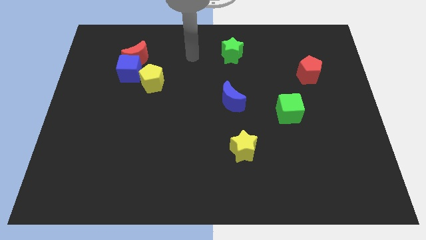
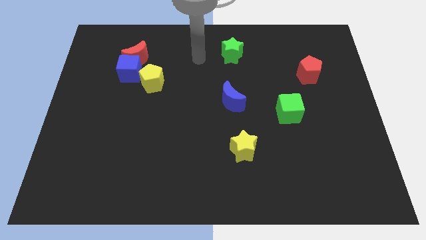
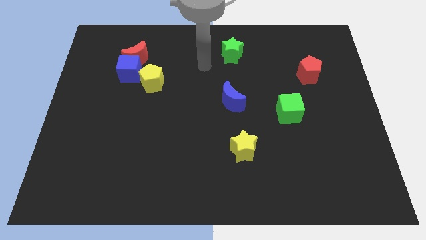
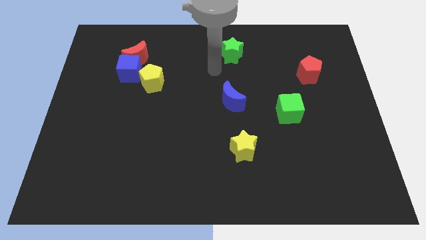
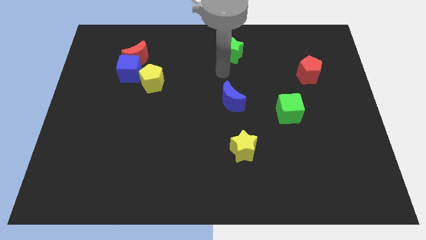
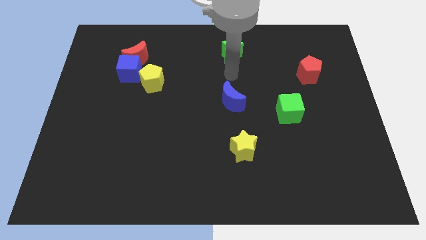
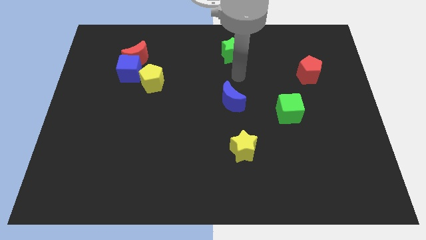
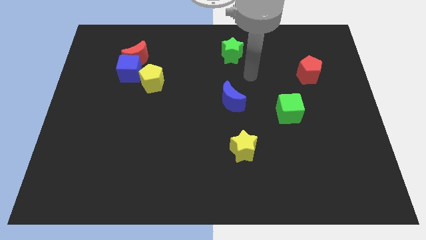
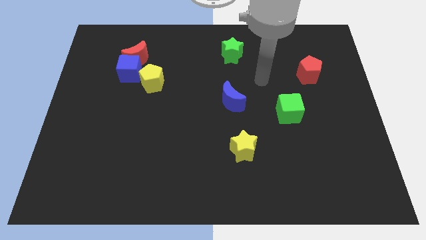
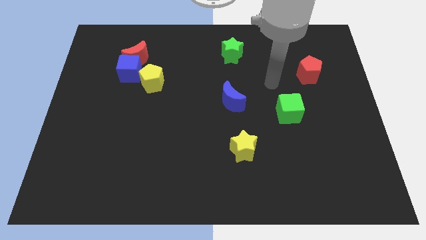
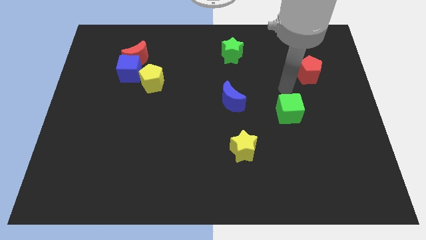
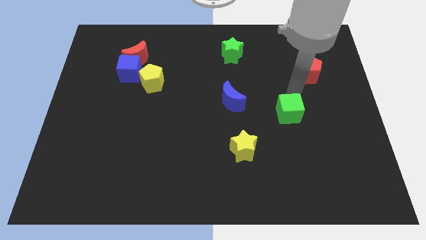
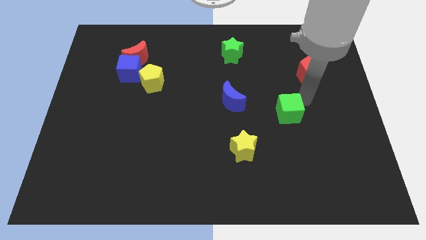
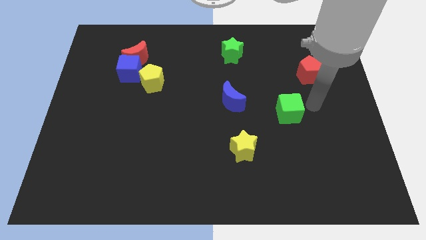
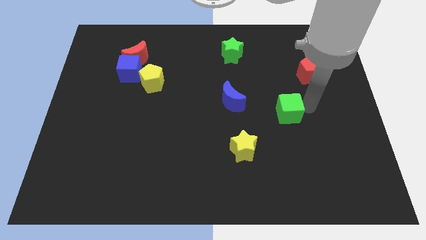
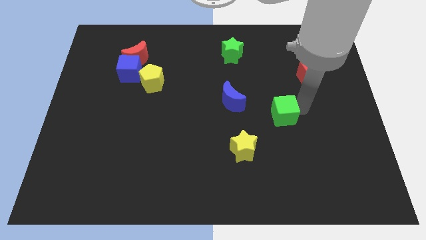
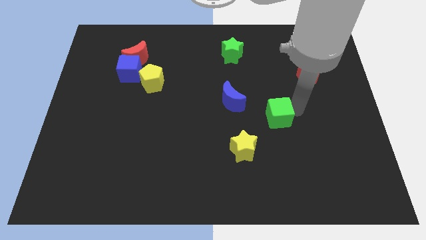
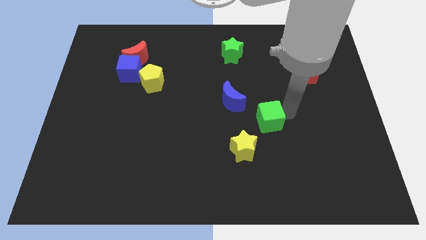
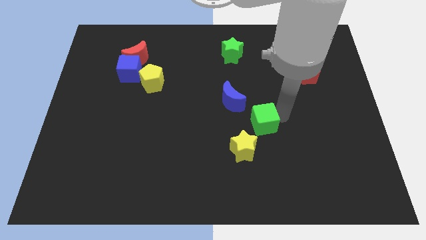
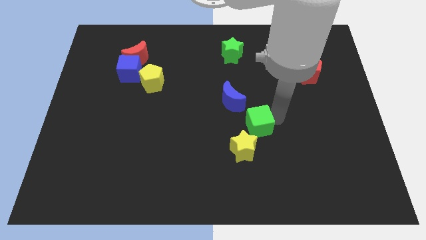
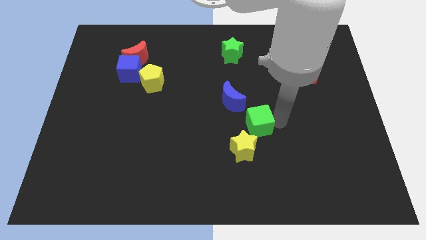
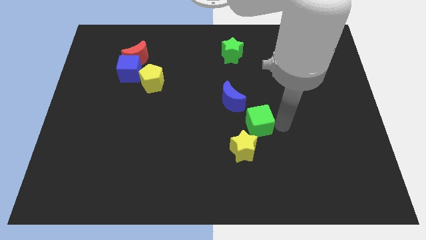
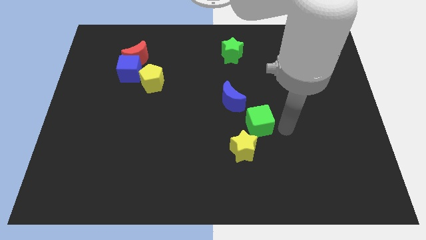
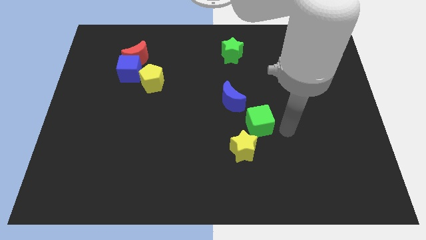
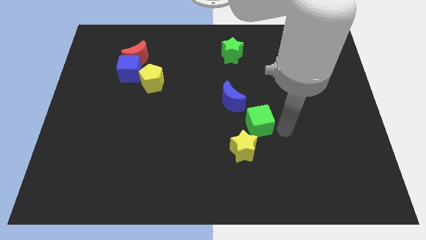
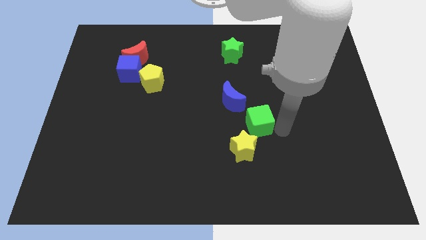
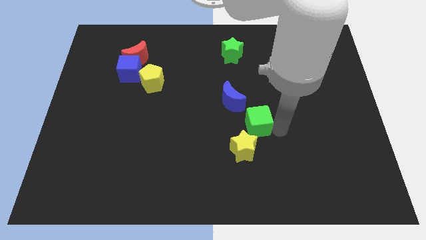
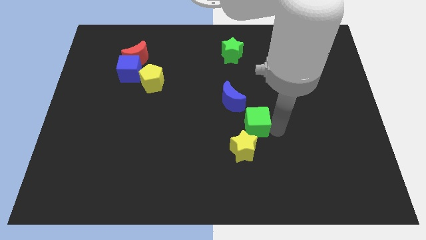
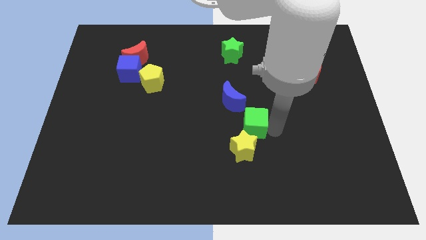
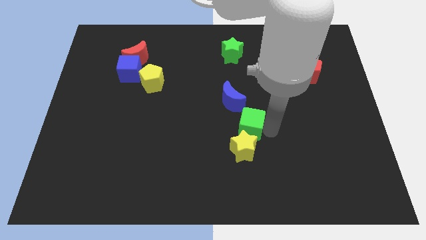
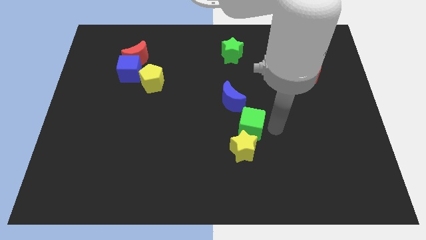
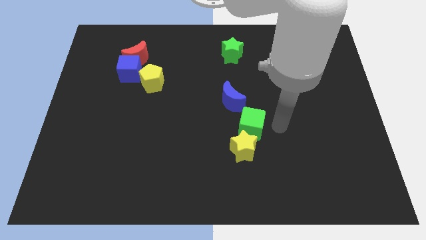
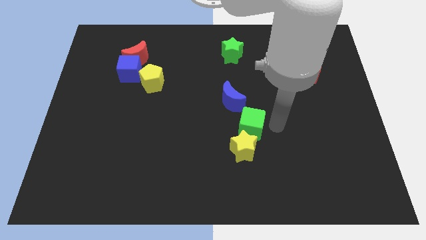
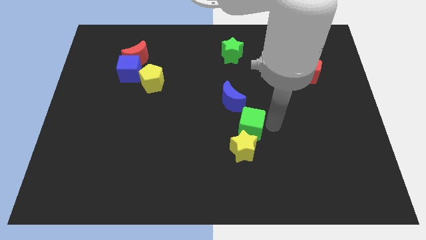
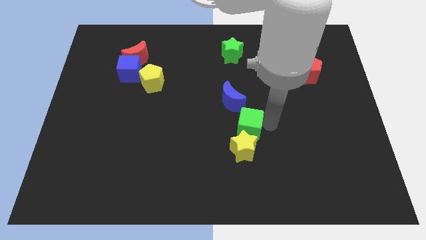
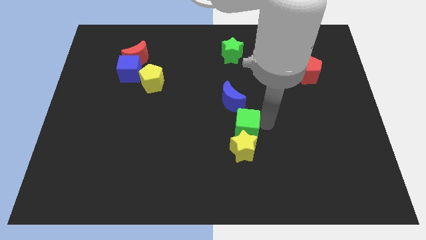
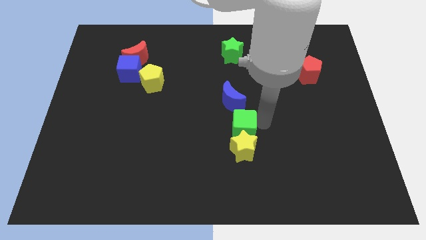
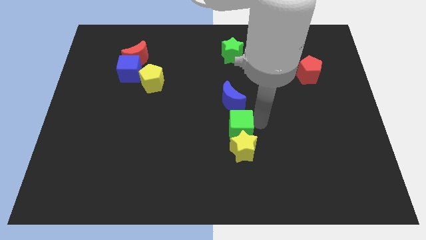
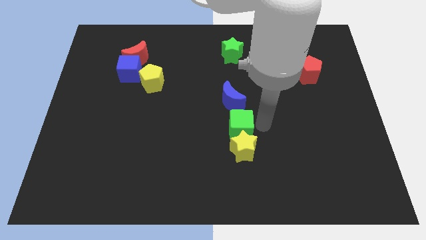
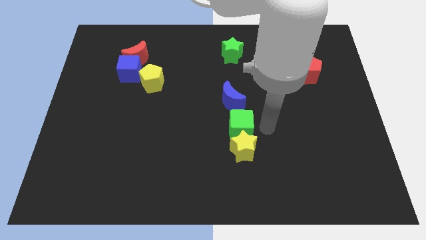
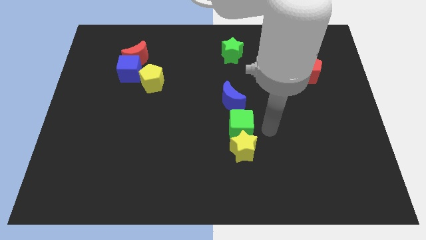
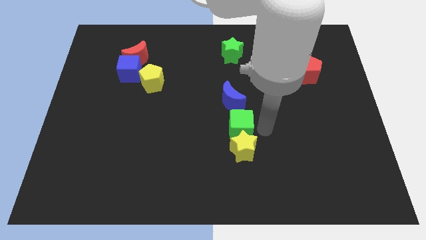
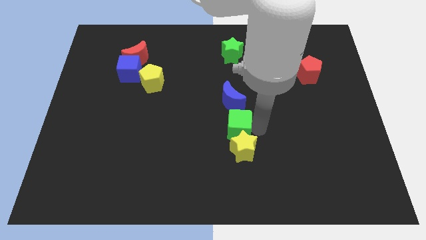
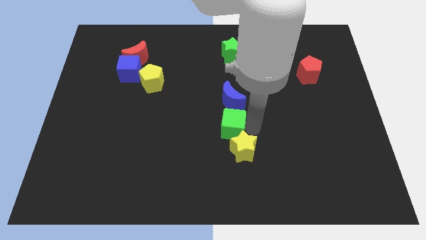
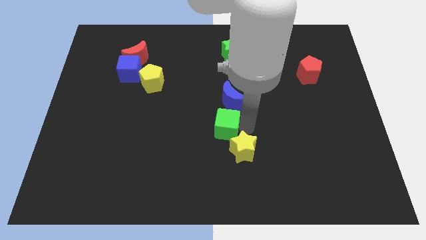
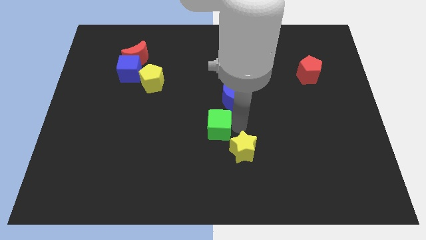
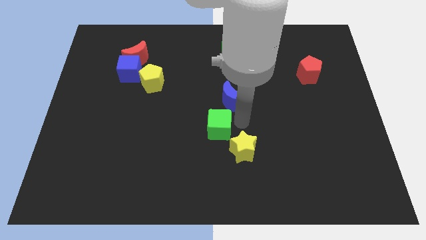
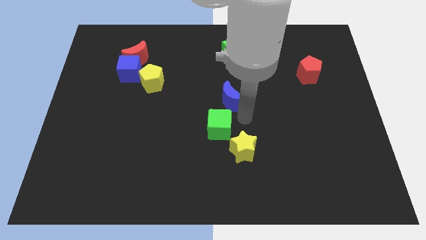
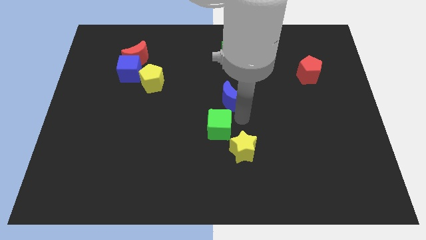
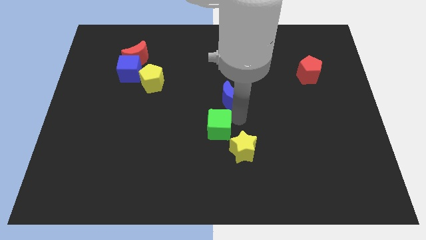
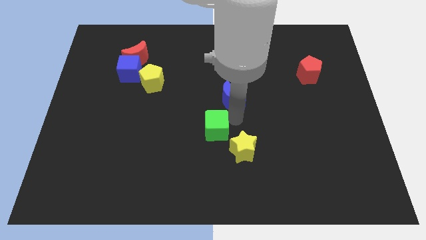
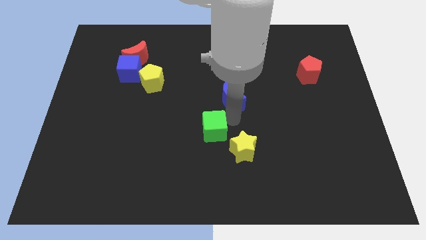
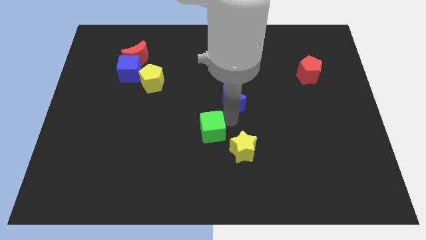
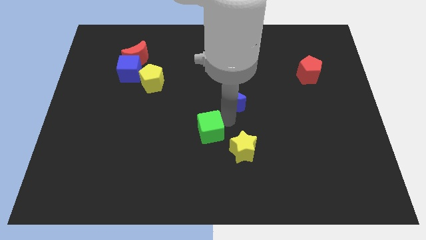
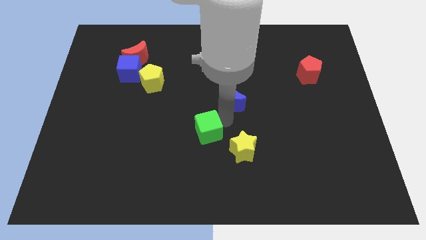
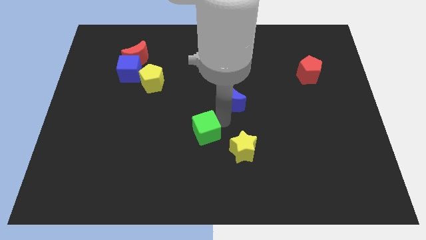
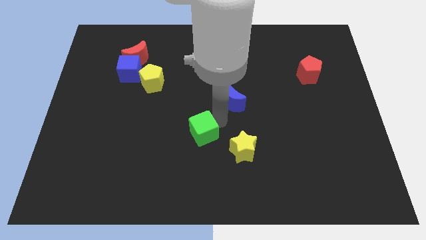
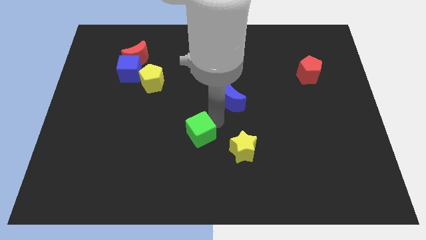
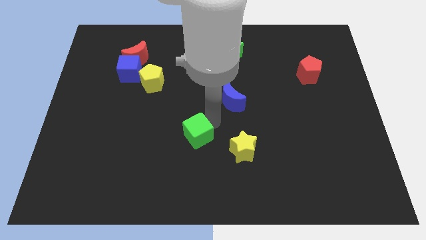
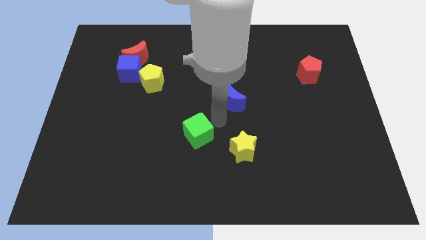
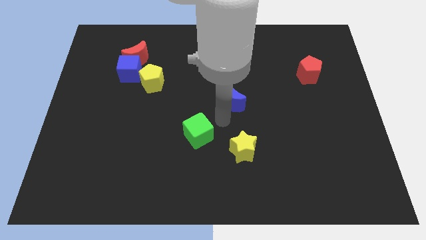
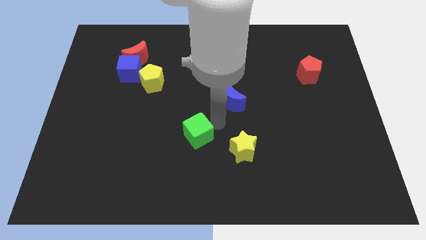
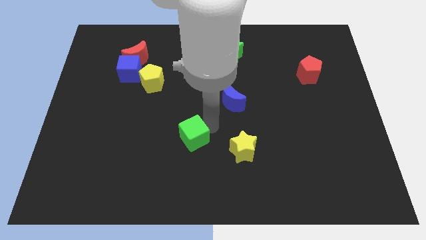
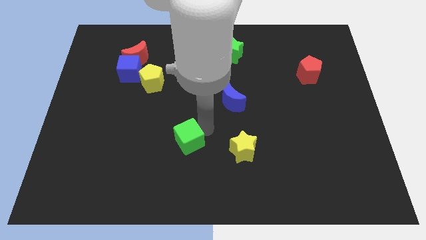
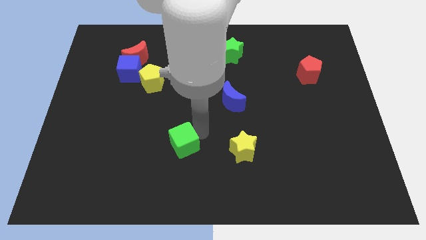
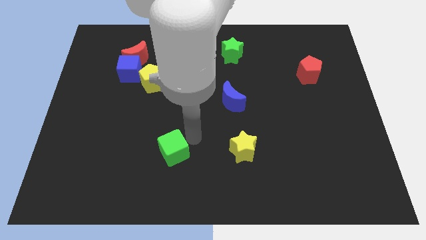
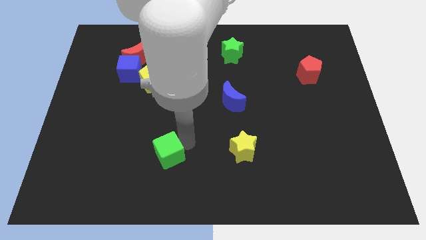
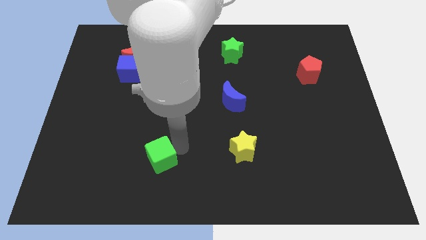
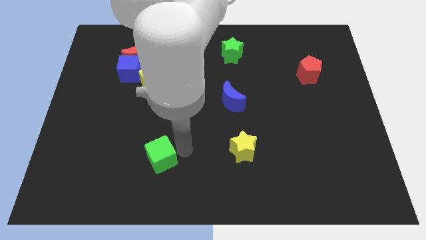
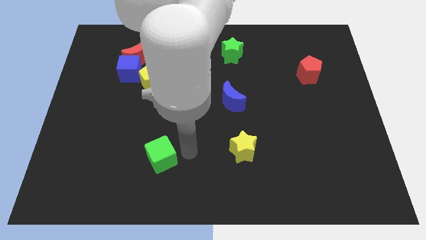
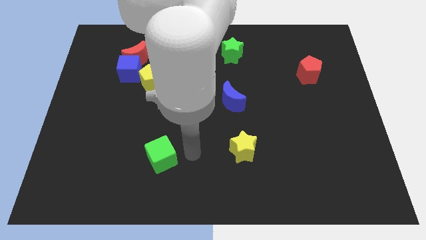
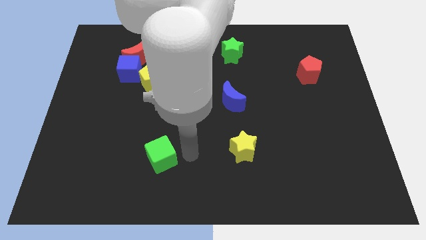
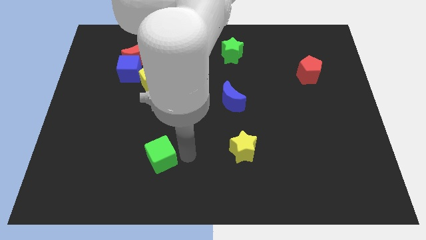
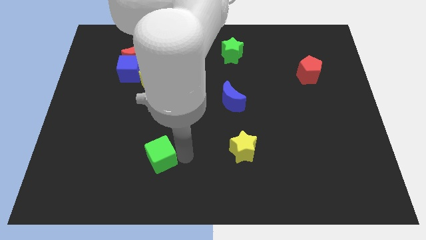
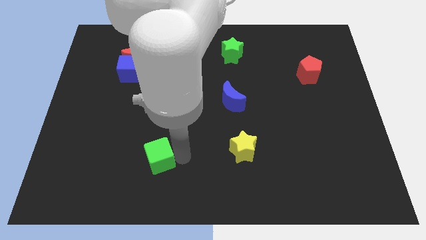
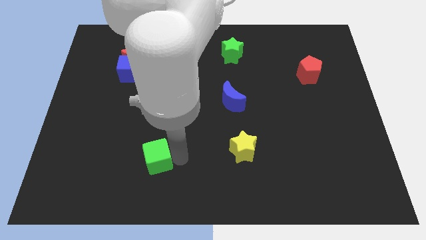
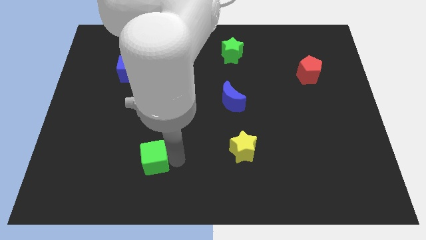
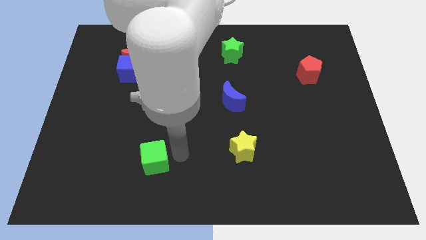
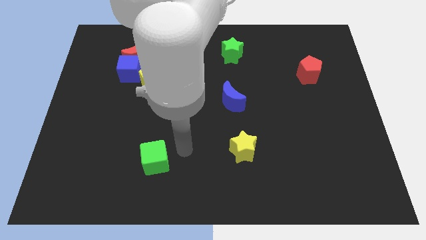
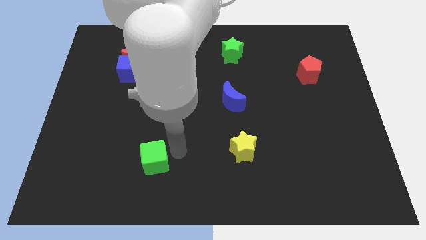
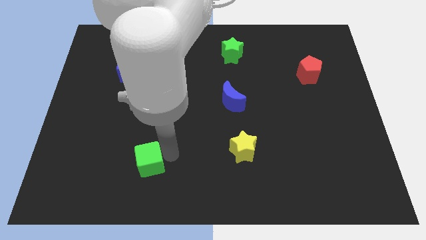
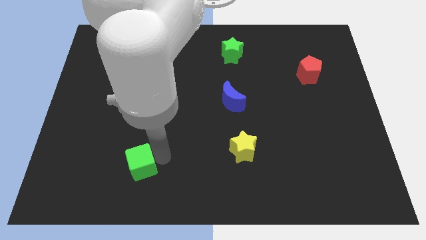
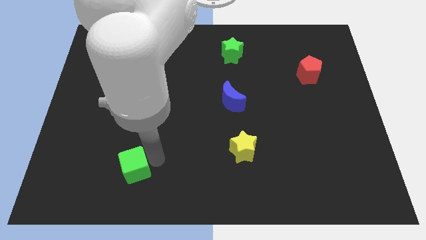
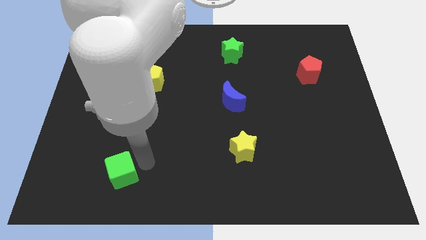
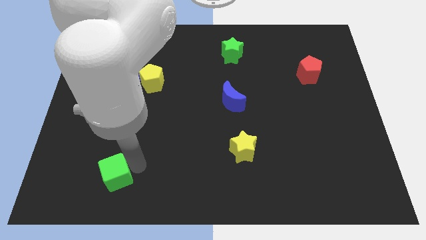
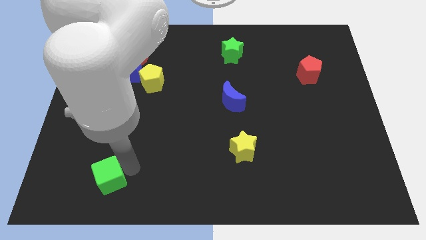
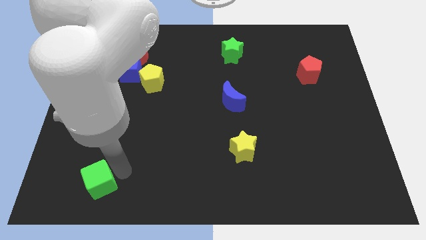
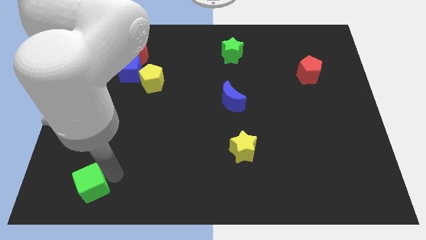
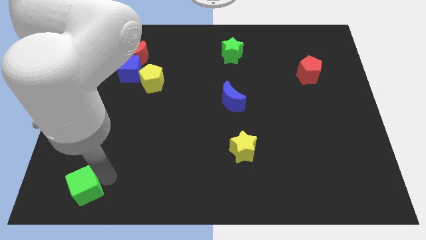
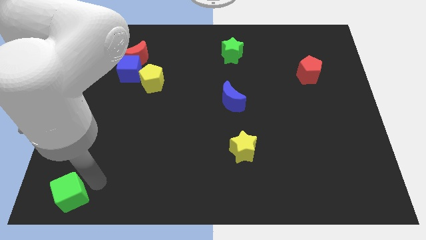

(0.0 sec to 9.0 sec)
move the green cube to the lower left corner
